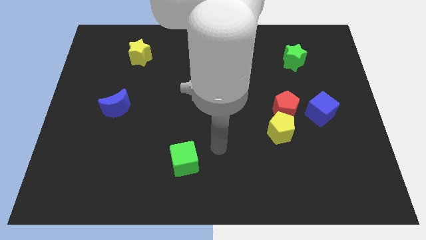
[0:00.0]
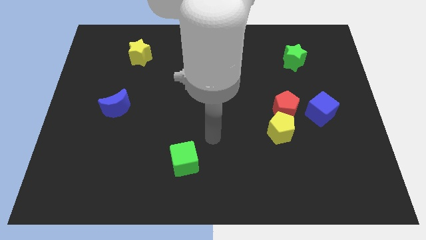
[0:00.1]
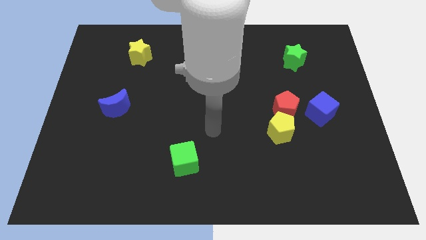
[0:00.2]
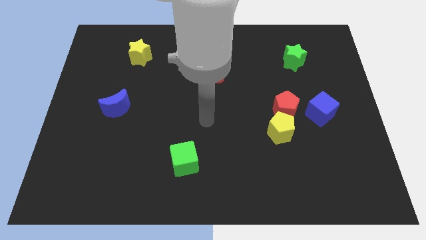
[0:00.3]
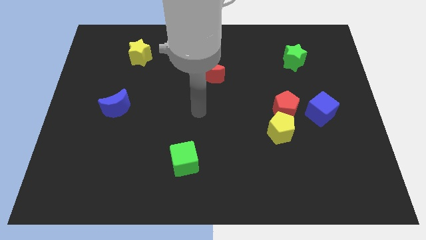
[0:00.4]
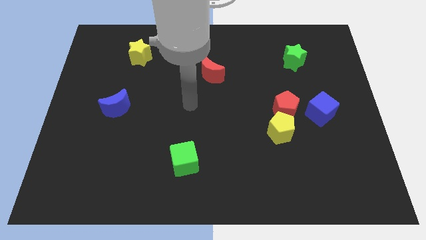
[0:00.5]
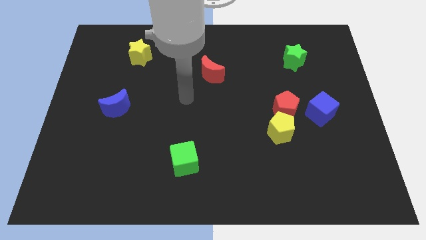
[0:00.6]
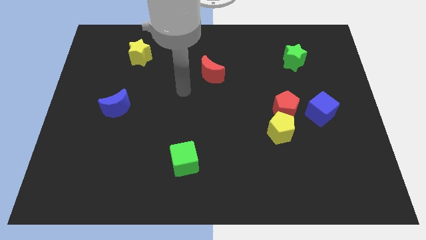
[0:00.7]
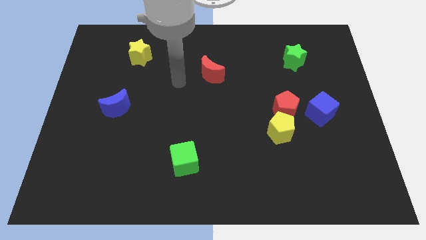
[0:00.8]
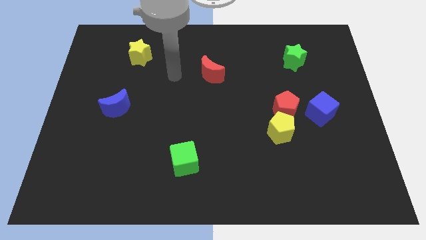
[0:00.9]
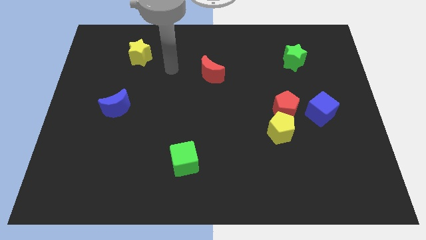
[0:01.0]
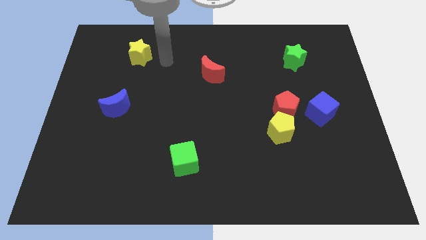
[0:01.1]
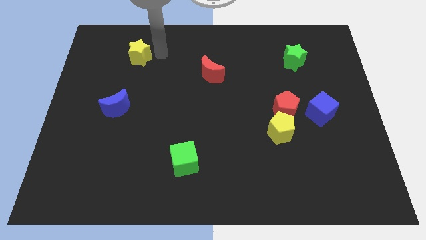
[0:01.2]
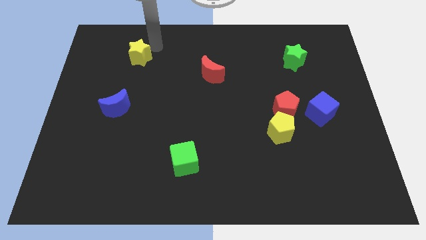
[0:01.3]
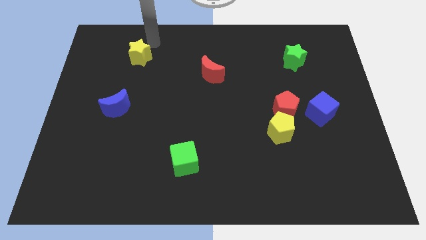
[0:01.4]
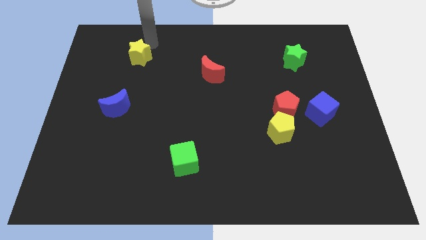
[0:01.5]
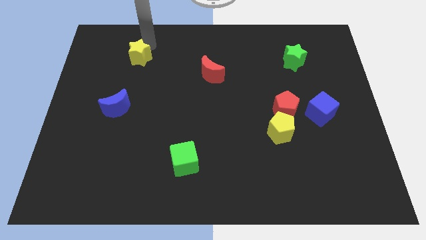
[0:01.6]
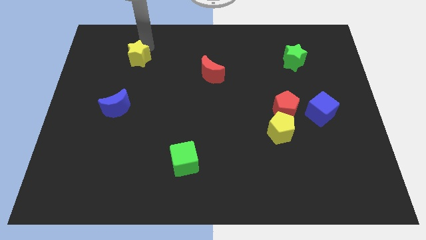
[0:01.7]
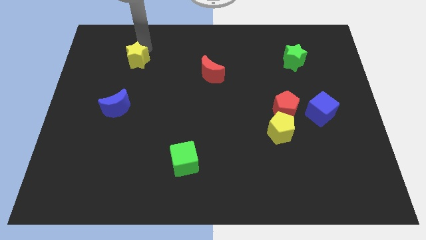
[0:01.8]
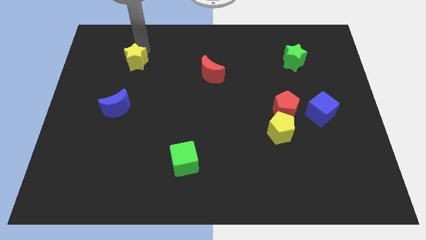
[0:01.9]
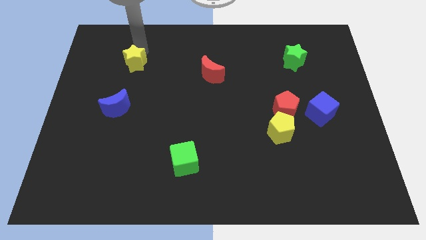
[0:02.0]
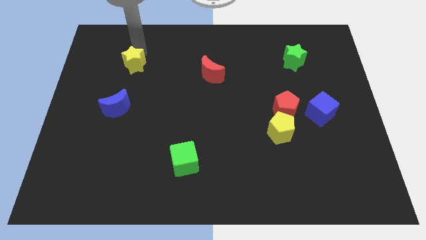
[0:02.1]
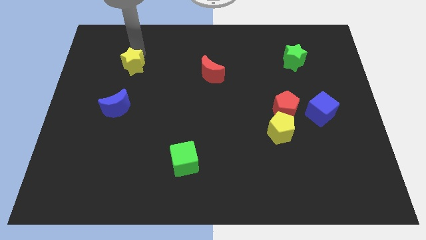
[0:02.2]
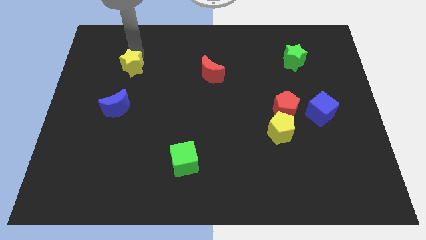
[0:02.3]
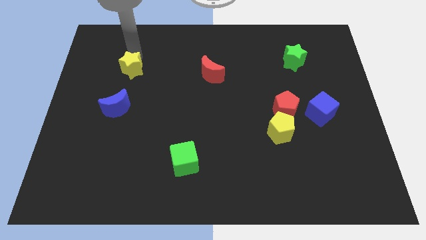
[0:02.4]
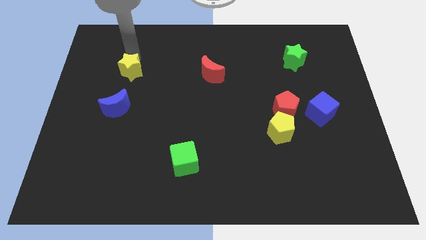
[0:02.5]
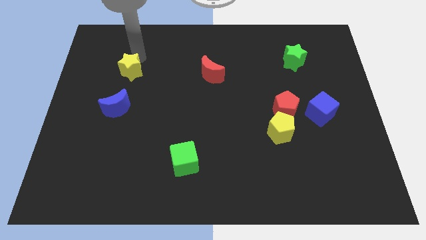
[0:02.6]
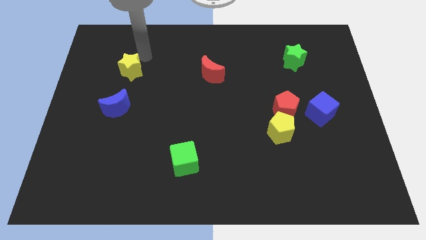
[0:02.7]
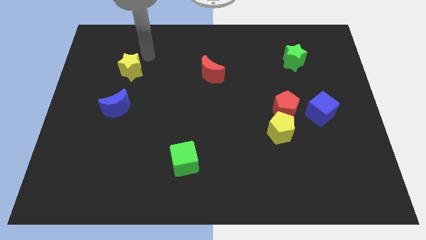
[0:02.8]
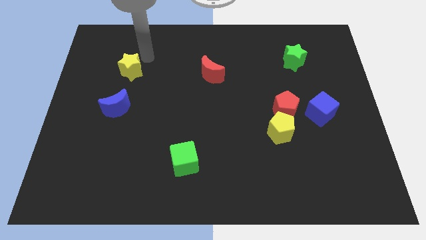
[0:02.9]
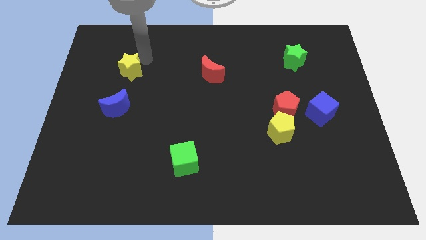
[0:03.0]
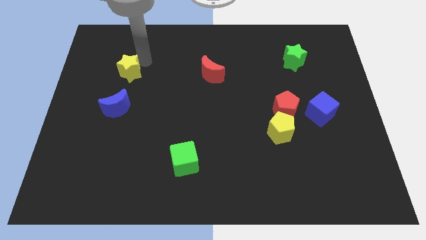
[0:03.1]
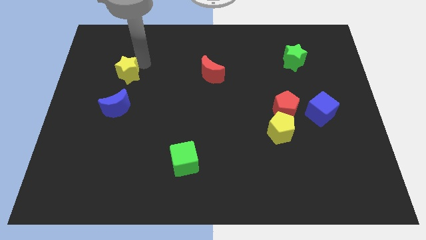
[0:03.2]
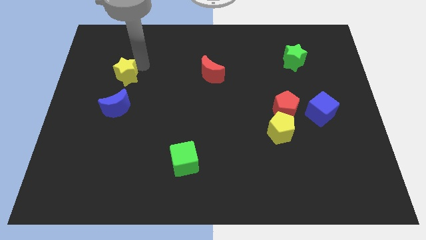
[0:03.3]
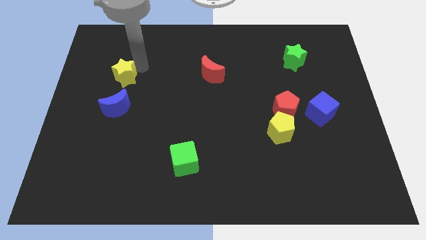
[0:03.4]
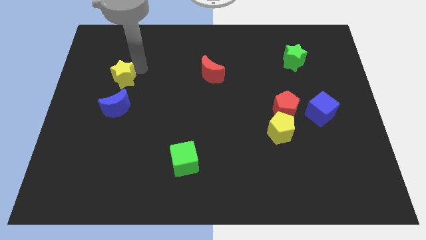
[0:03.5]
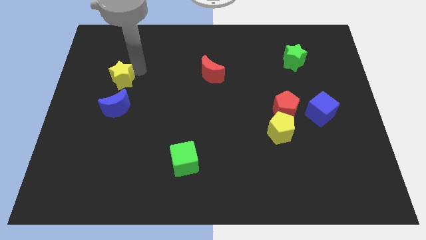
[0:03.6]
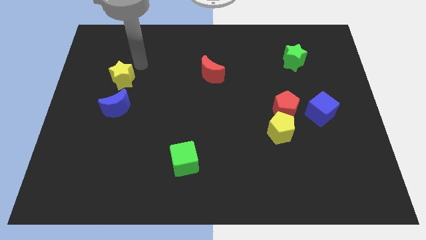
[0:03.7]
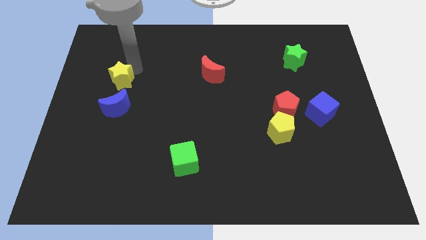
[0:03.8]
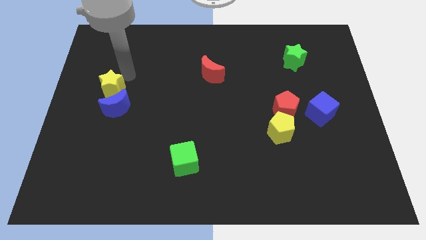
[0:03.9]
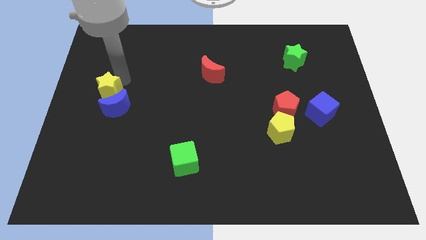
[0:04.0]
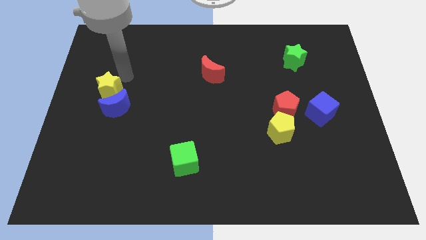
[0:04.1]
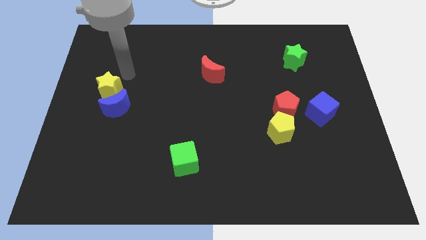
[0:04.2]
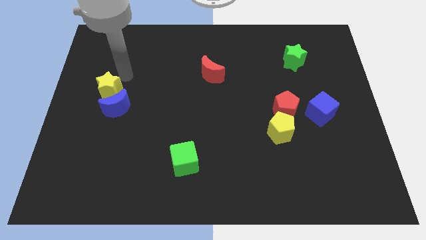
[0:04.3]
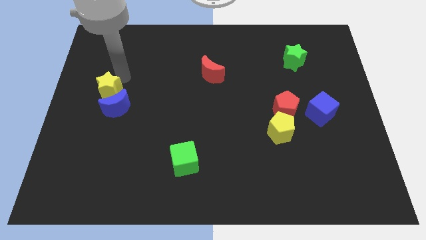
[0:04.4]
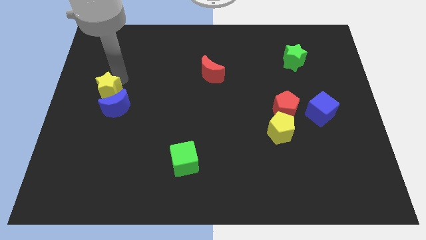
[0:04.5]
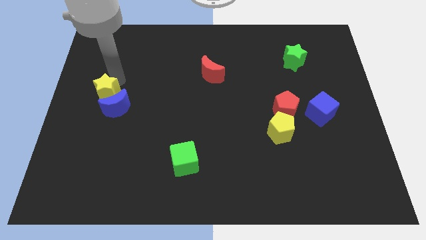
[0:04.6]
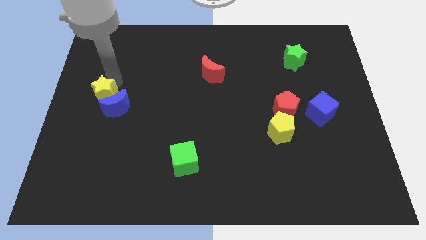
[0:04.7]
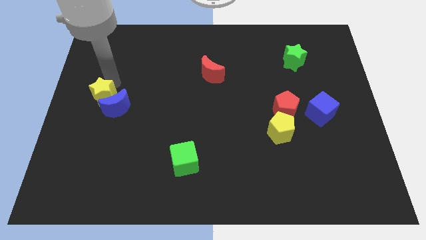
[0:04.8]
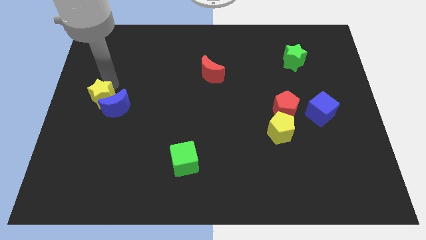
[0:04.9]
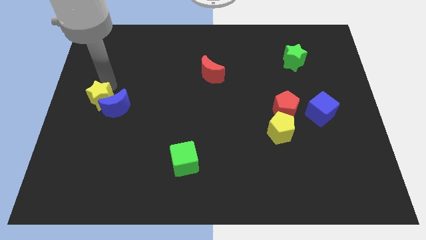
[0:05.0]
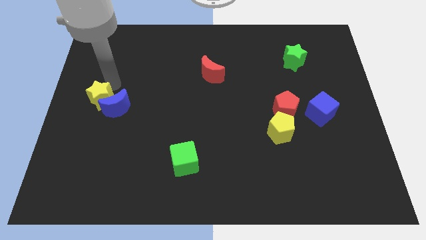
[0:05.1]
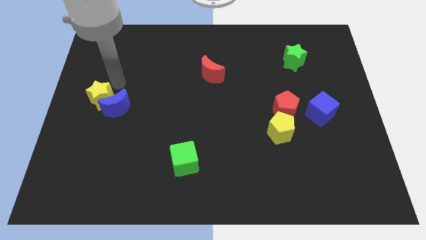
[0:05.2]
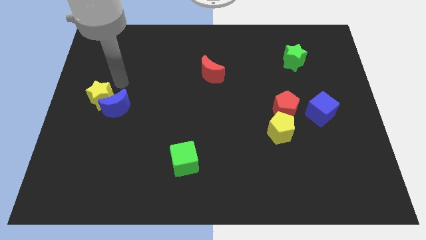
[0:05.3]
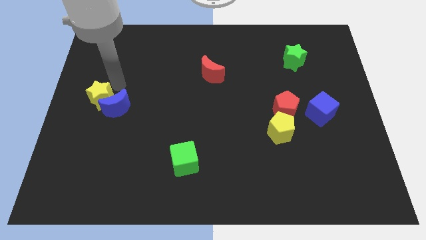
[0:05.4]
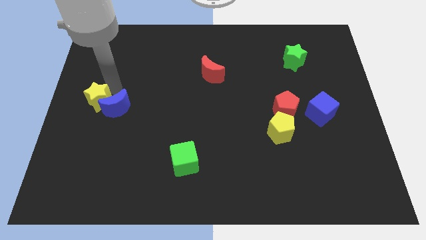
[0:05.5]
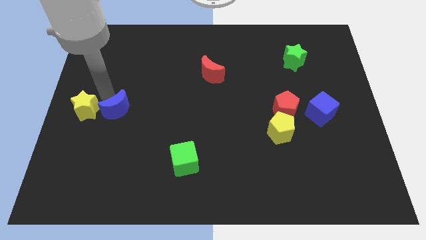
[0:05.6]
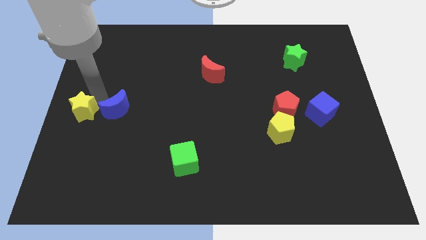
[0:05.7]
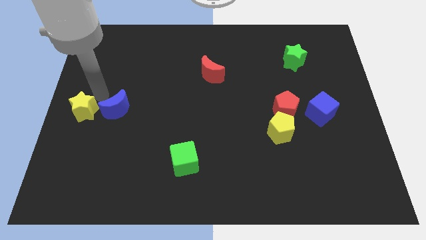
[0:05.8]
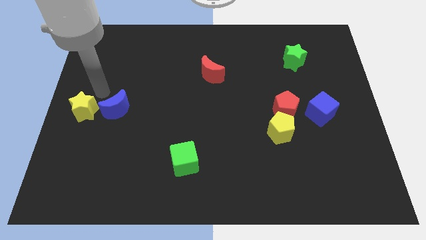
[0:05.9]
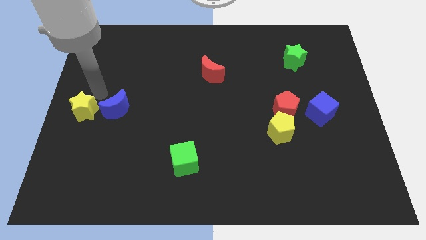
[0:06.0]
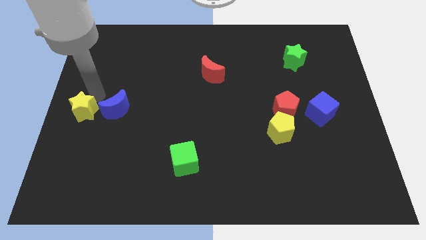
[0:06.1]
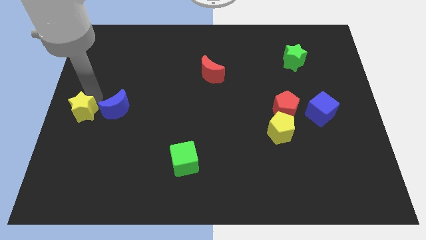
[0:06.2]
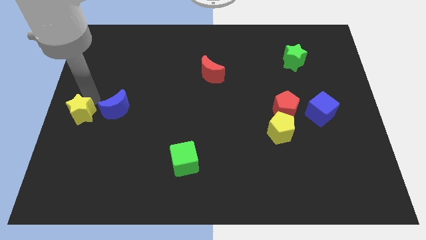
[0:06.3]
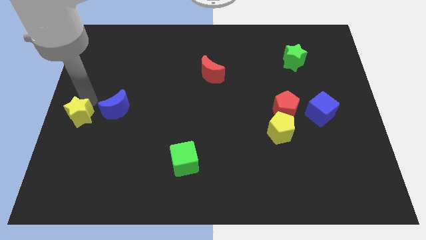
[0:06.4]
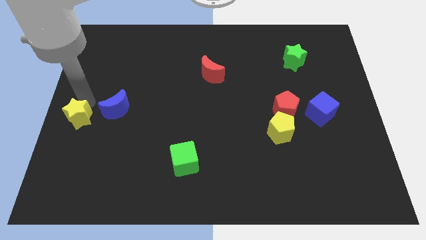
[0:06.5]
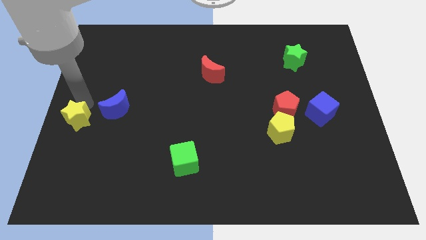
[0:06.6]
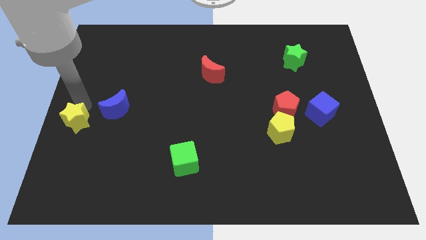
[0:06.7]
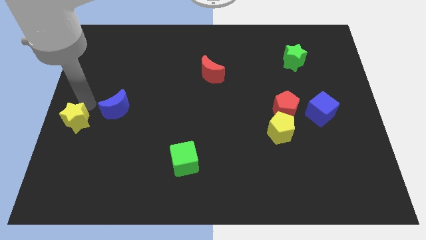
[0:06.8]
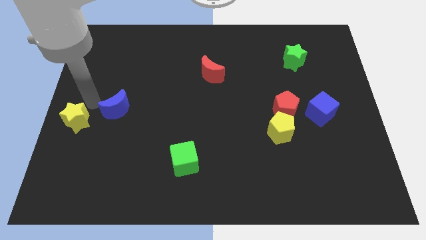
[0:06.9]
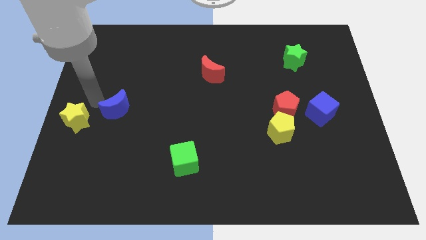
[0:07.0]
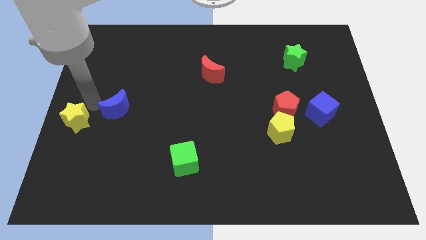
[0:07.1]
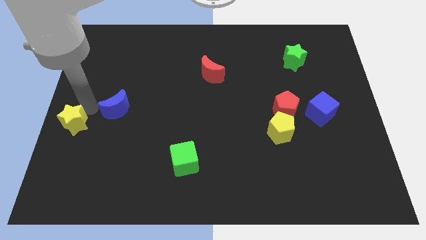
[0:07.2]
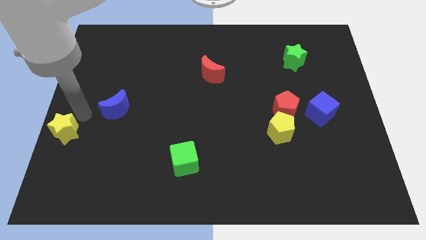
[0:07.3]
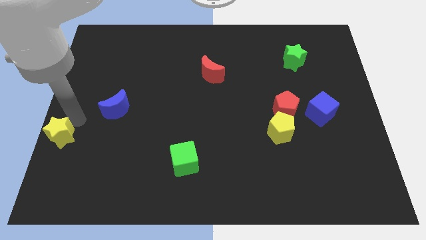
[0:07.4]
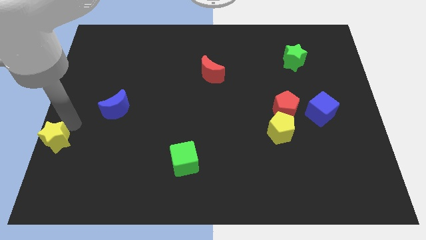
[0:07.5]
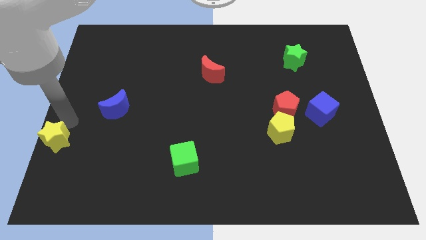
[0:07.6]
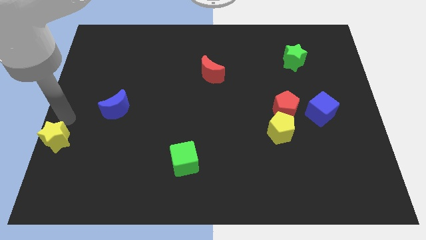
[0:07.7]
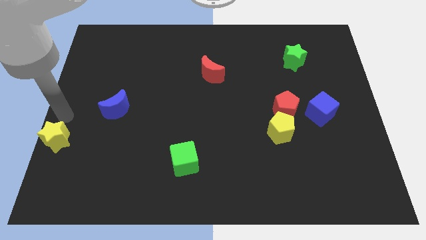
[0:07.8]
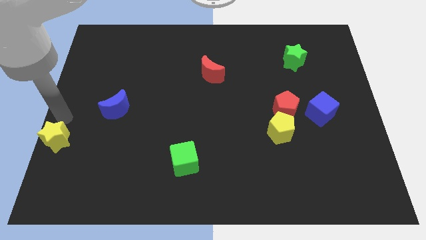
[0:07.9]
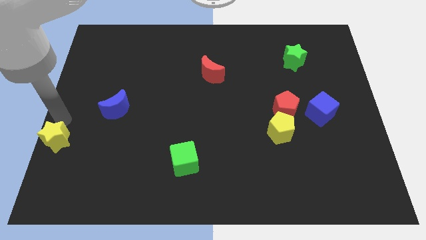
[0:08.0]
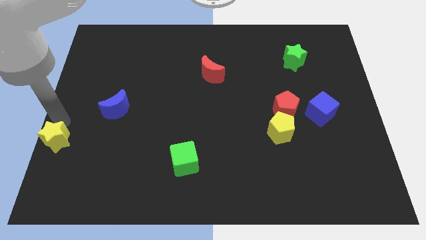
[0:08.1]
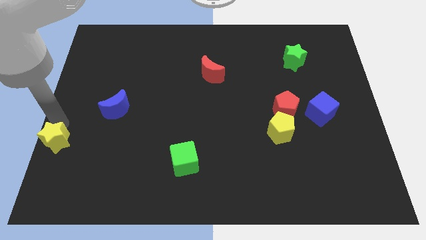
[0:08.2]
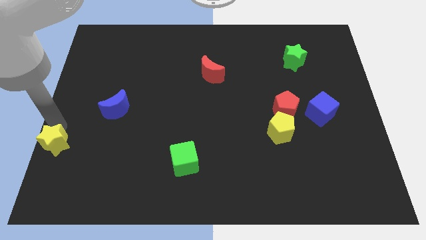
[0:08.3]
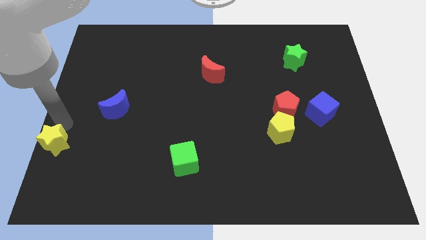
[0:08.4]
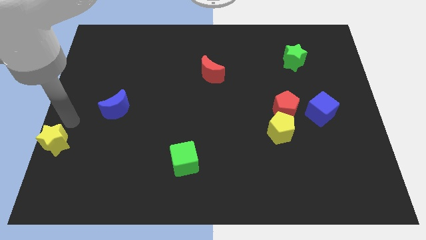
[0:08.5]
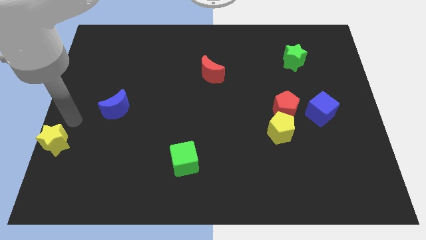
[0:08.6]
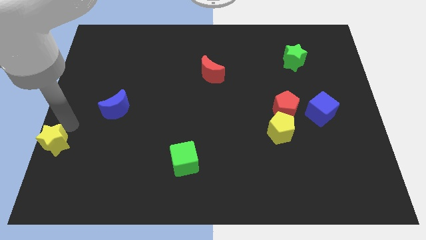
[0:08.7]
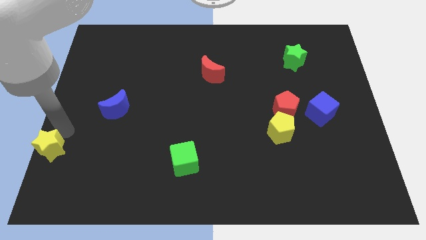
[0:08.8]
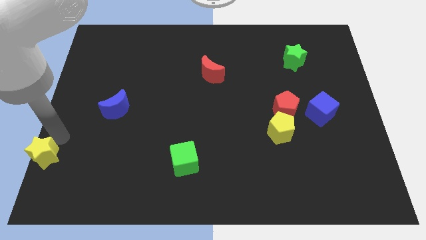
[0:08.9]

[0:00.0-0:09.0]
move the yellow star to the bottom left
